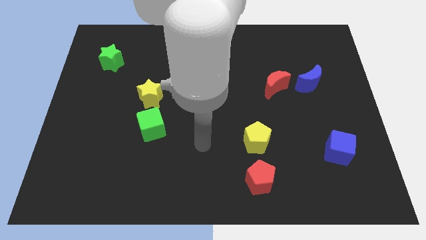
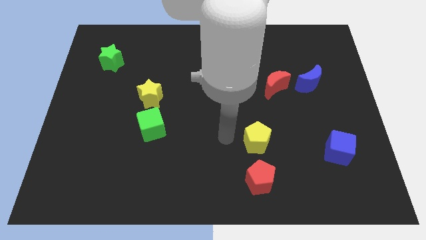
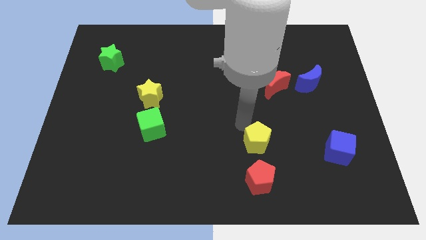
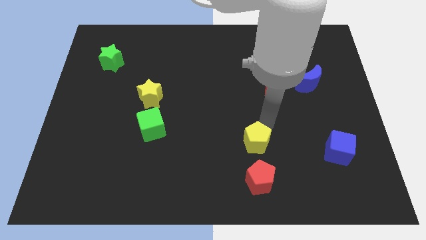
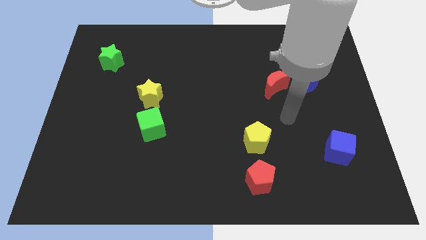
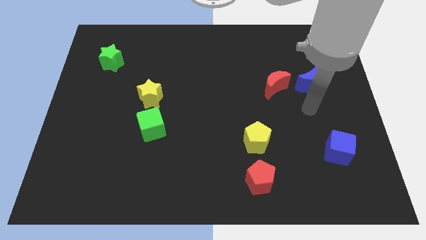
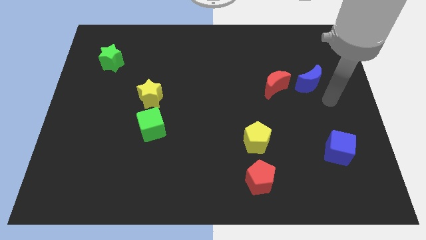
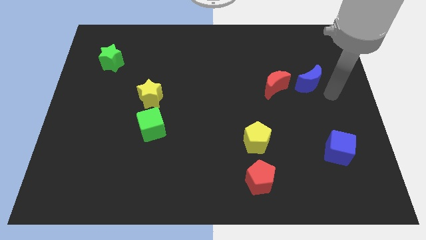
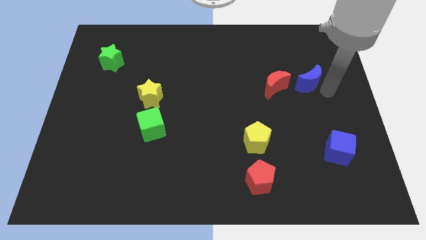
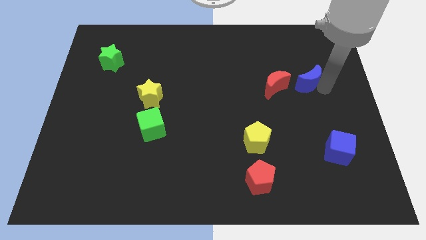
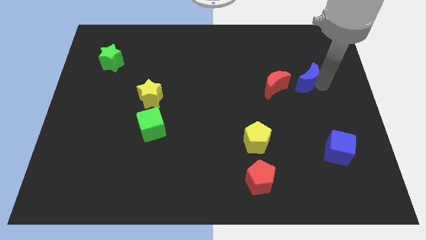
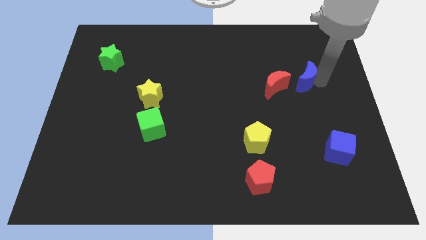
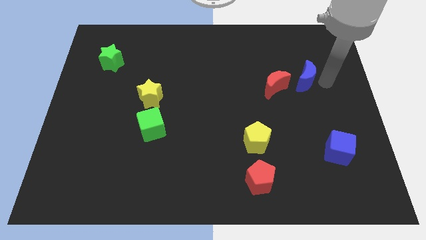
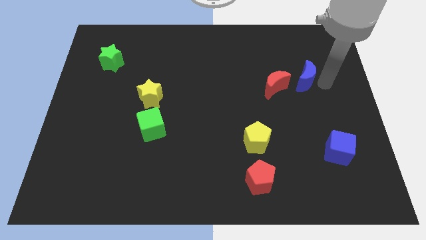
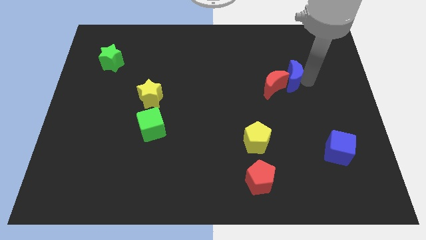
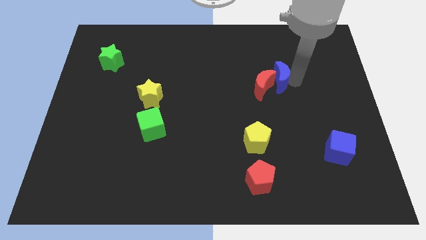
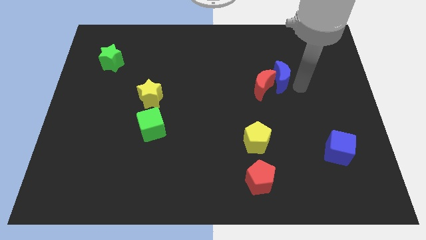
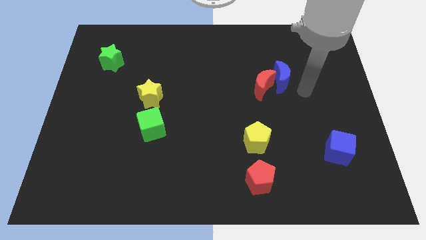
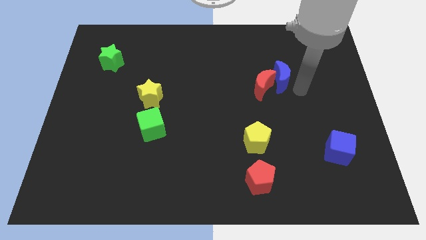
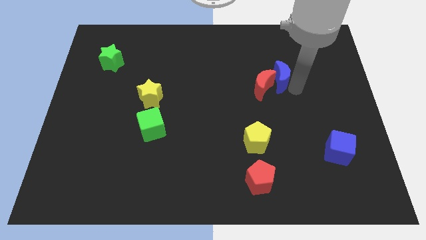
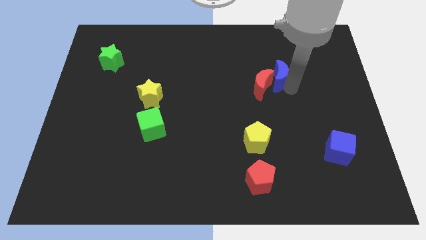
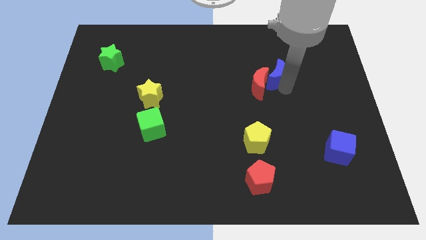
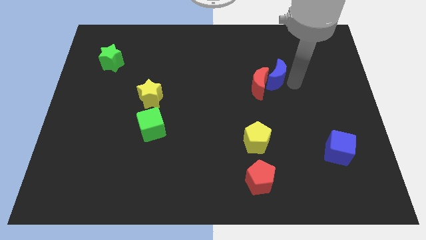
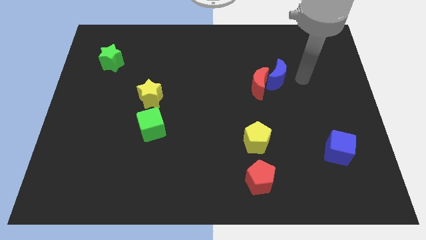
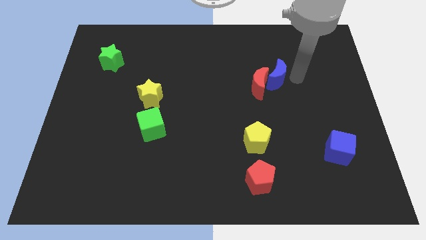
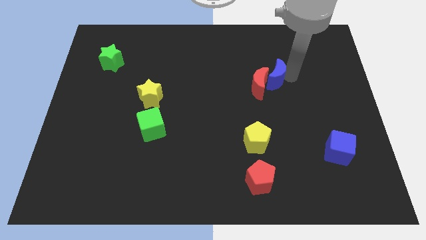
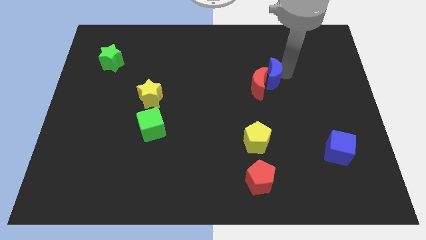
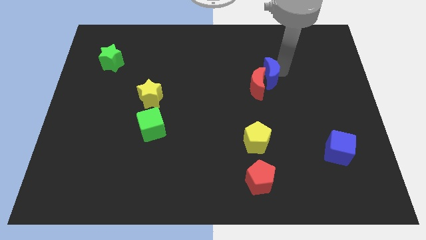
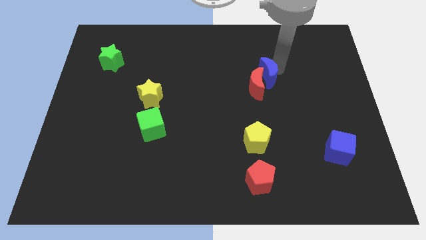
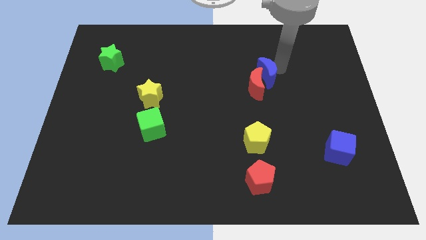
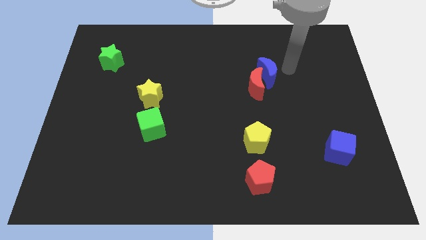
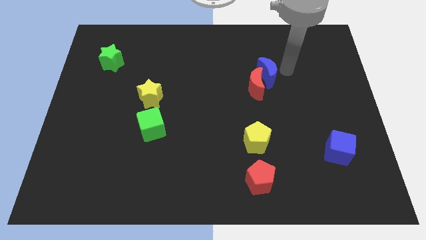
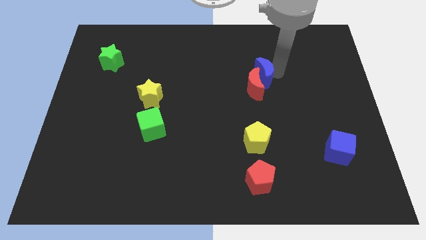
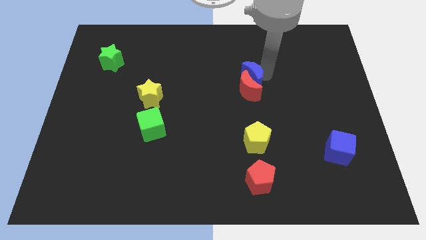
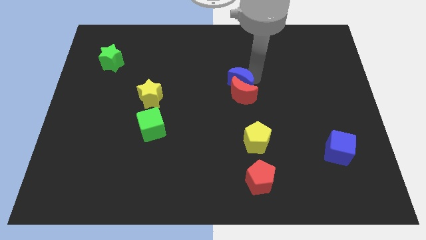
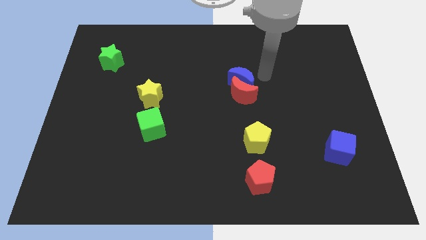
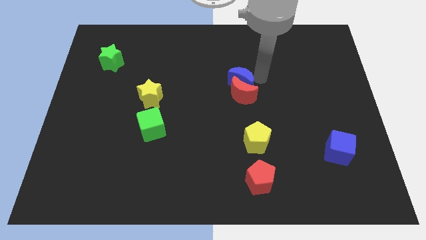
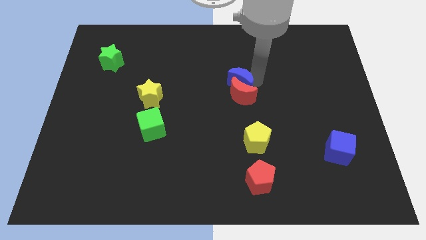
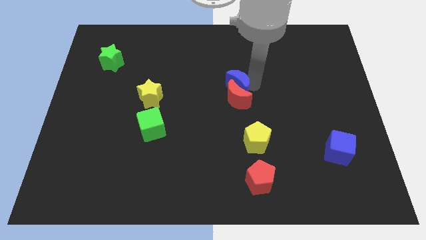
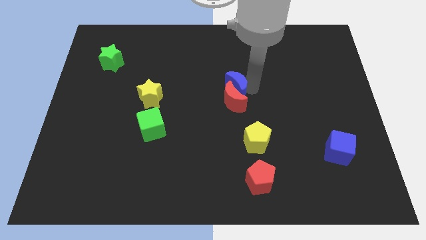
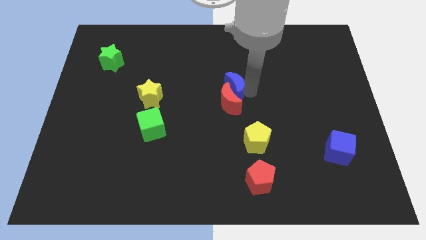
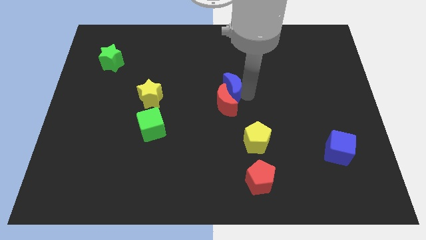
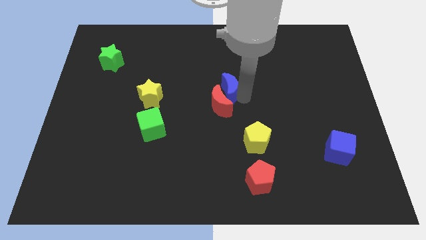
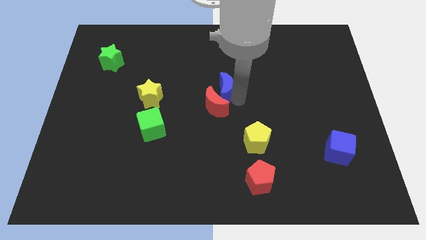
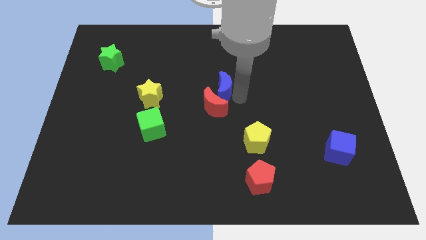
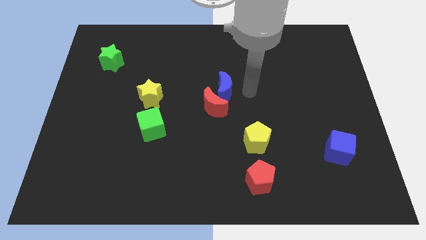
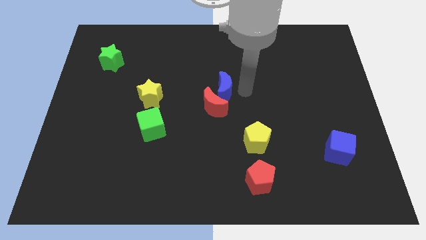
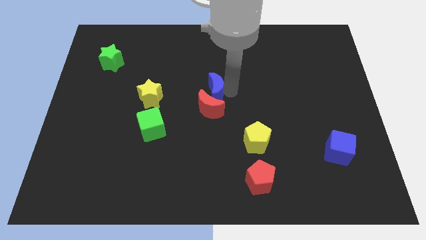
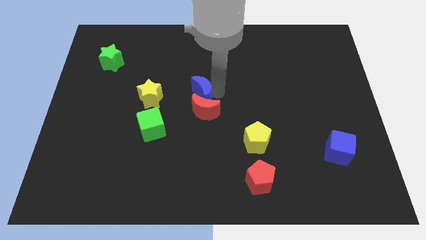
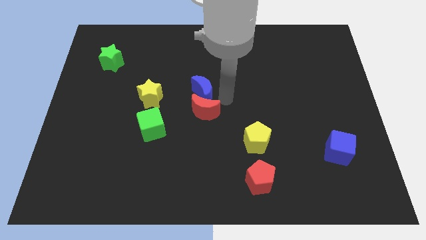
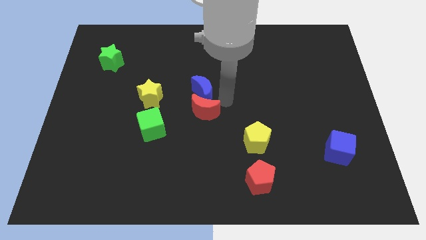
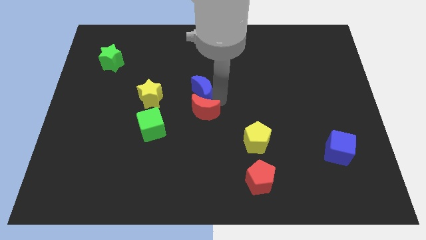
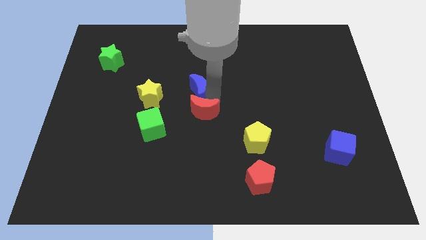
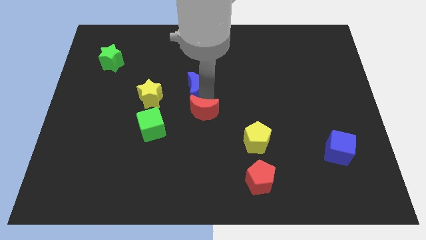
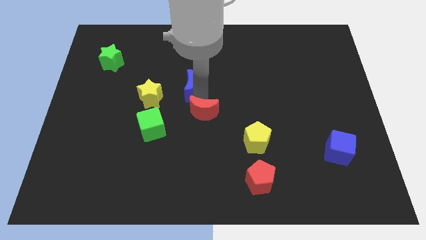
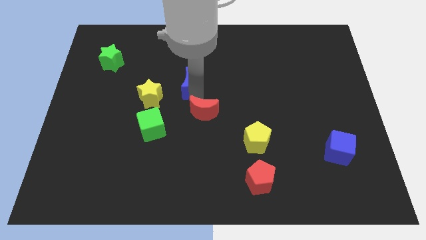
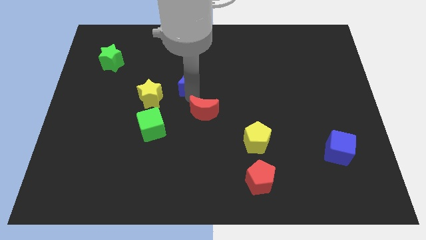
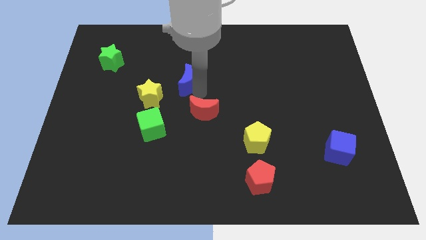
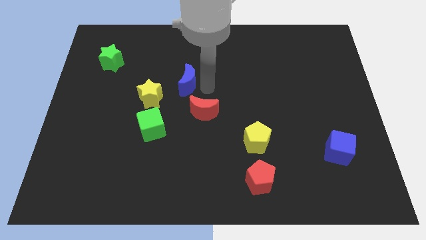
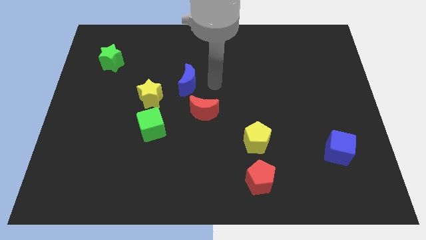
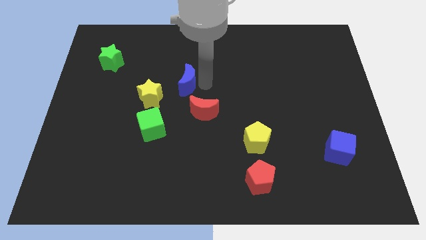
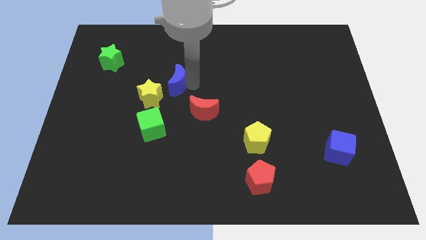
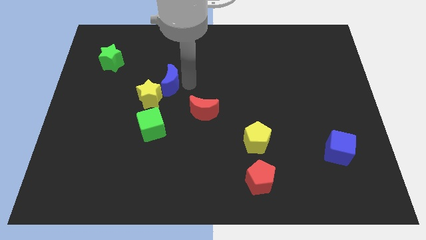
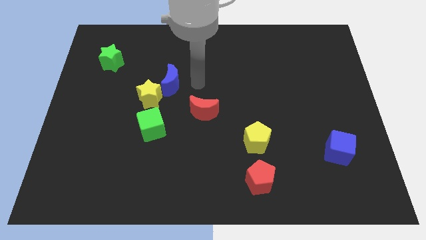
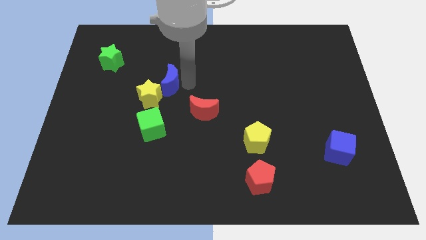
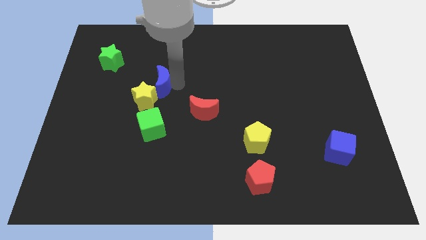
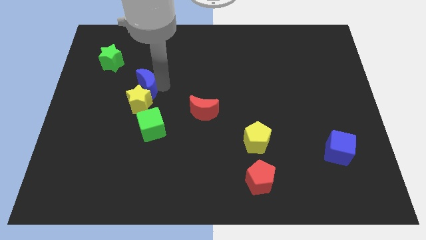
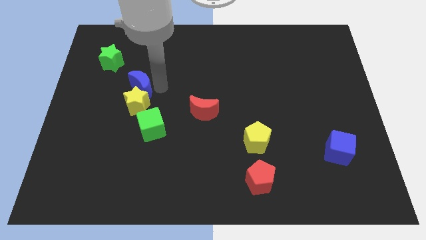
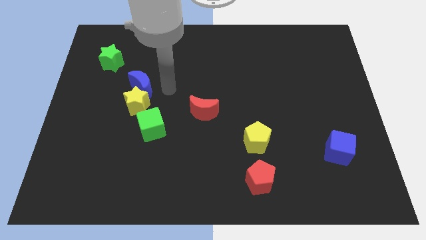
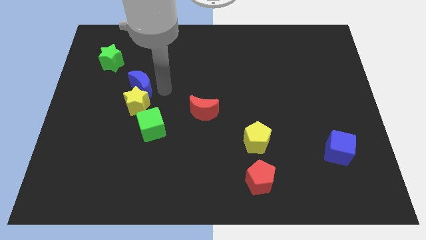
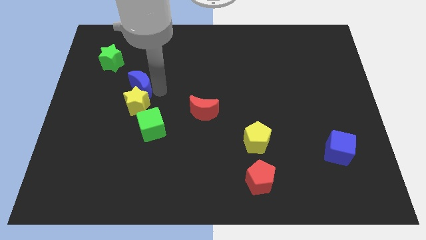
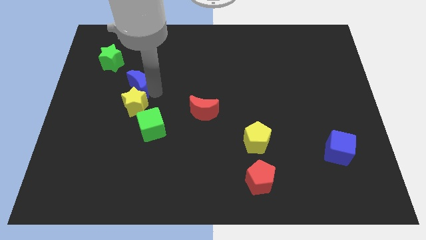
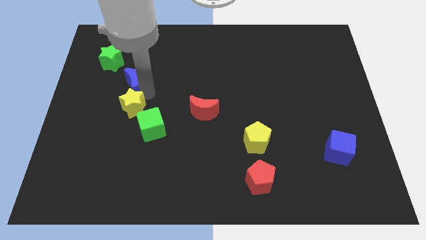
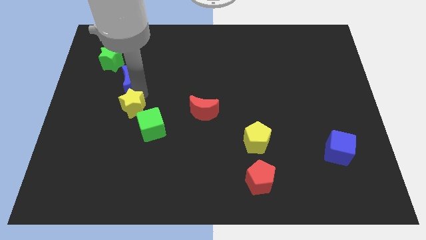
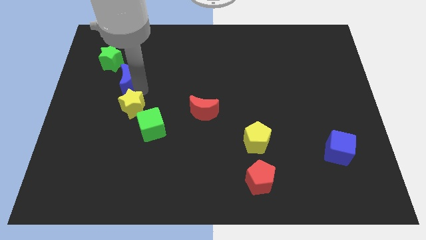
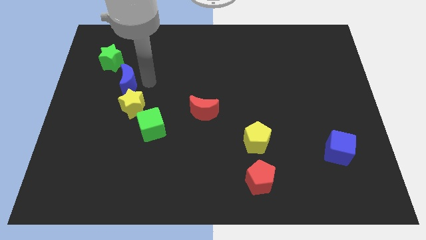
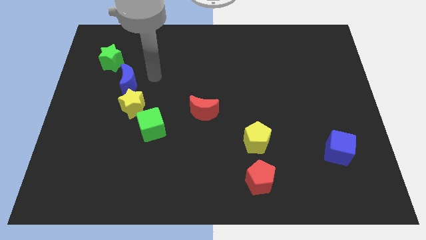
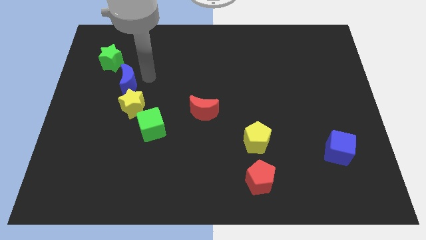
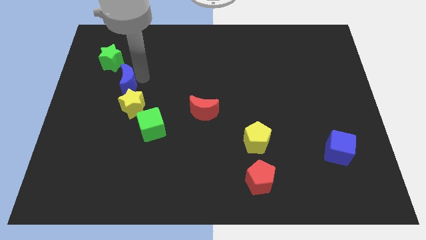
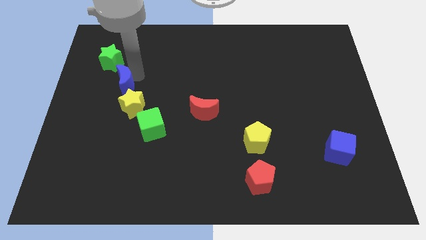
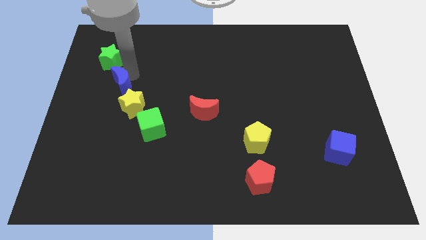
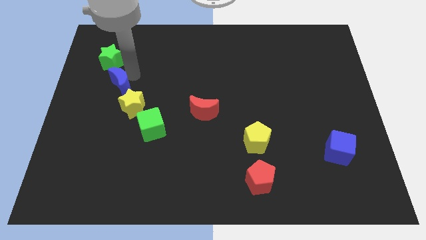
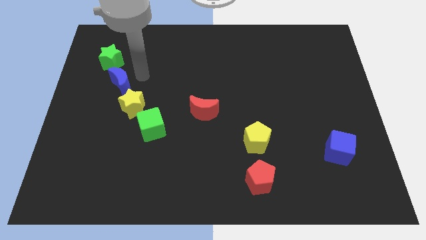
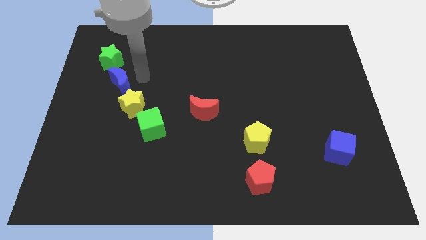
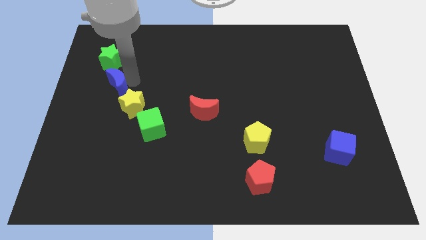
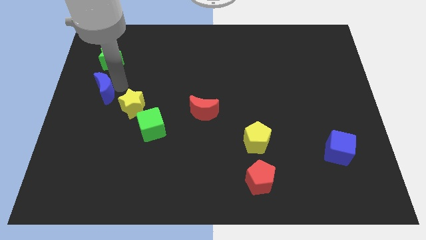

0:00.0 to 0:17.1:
slide the blue moon to the left side

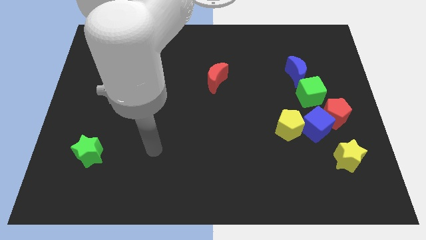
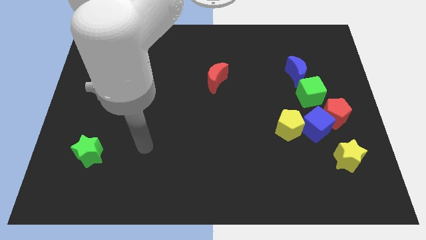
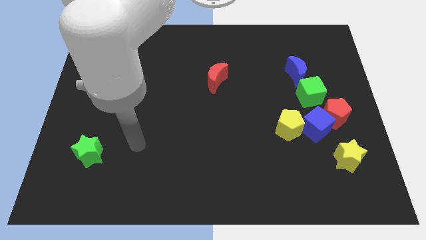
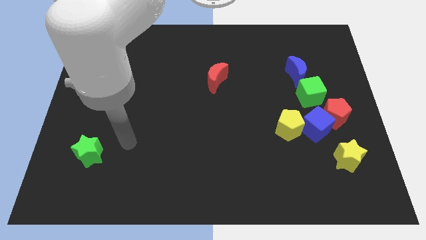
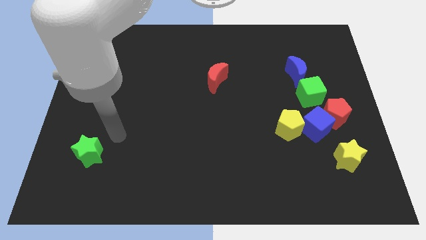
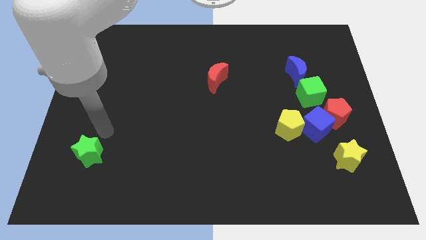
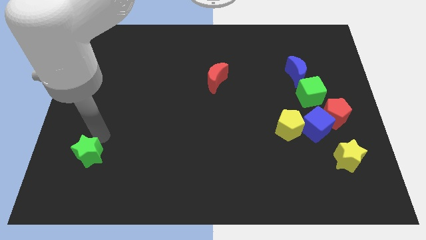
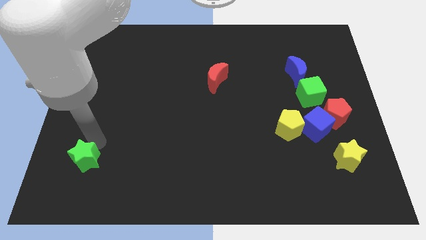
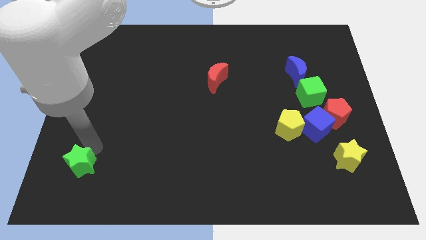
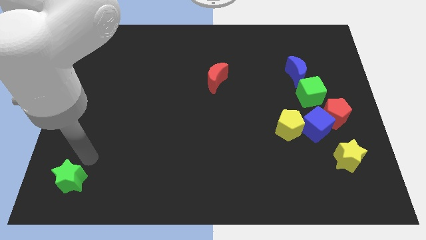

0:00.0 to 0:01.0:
slide the green star to the bottom left
